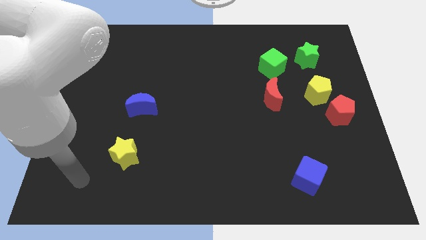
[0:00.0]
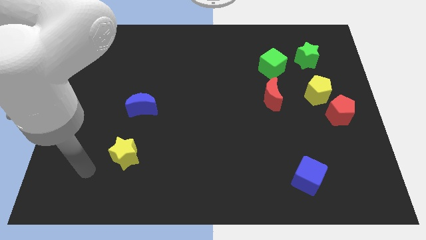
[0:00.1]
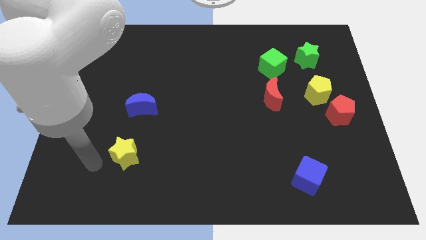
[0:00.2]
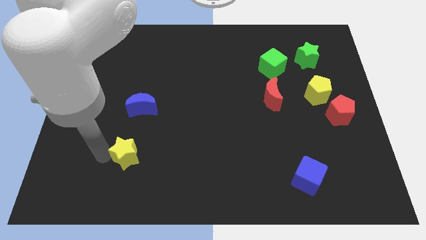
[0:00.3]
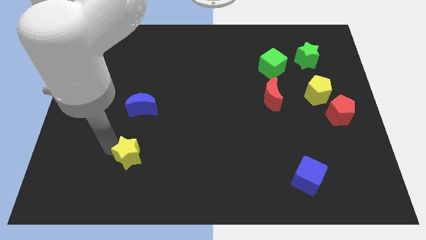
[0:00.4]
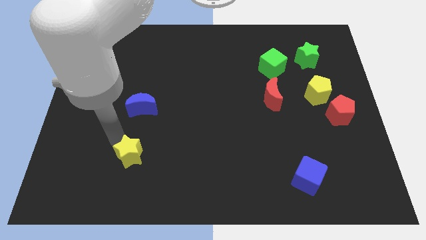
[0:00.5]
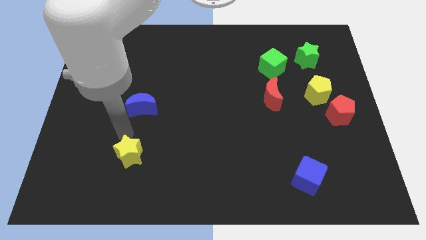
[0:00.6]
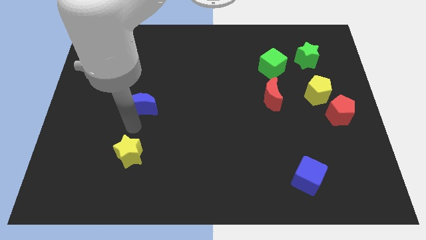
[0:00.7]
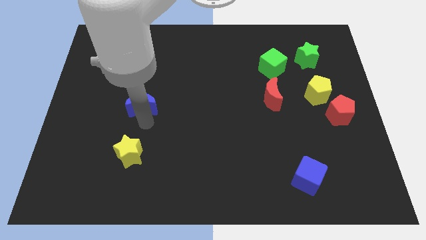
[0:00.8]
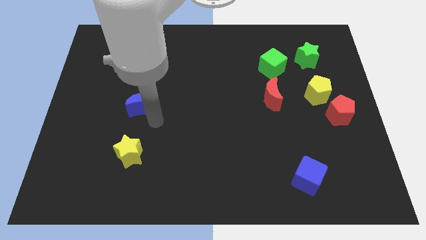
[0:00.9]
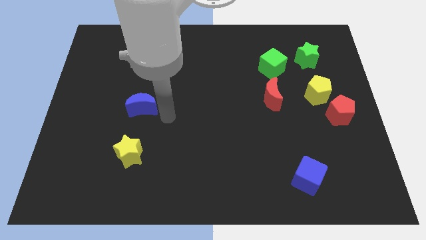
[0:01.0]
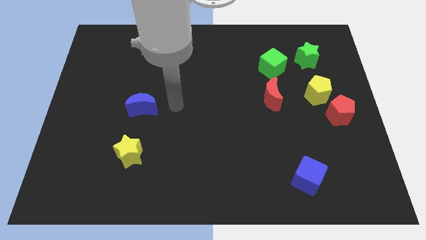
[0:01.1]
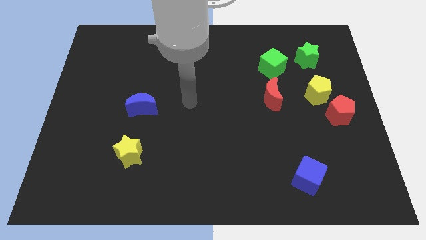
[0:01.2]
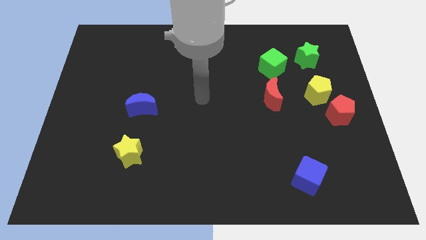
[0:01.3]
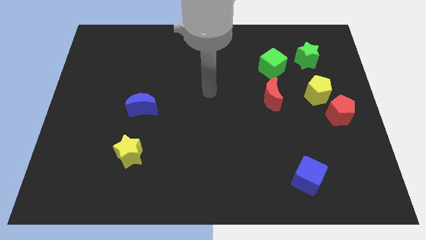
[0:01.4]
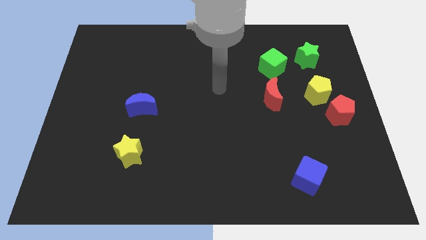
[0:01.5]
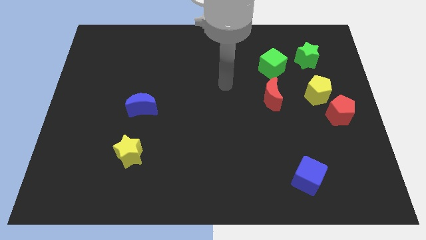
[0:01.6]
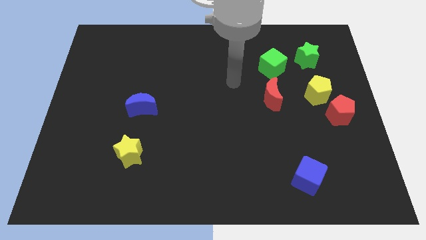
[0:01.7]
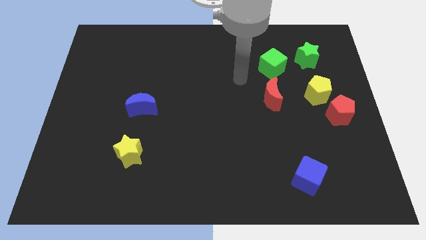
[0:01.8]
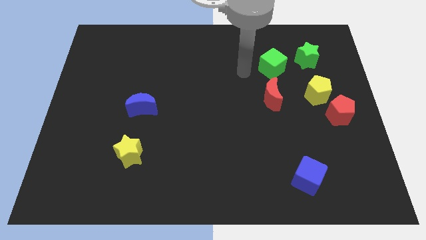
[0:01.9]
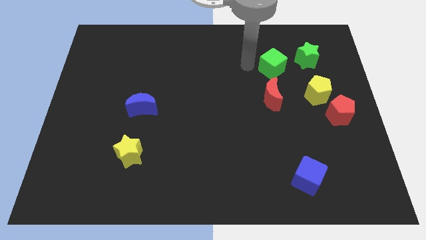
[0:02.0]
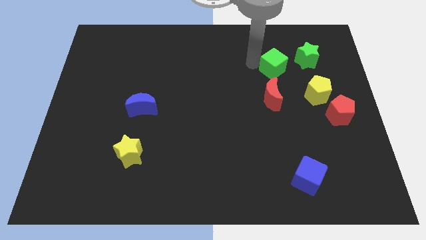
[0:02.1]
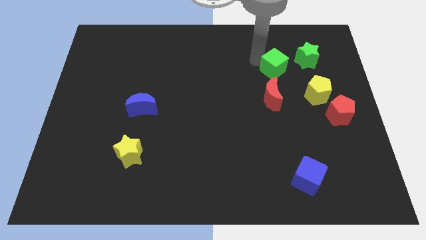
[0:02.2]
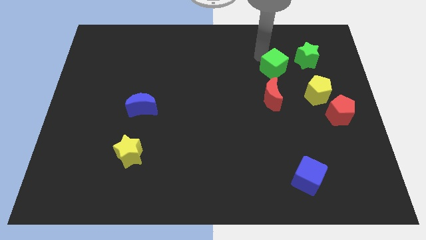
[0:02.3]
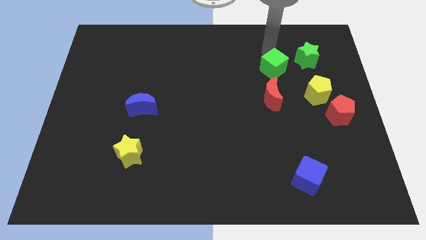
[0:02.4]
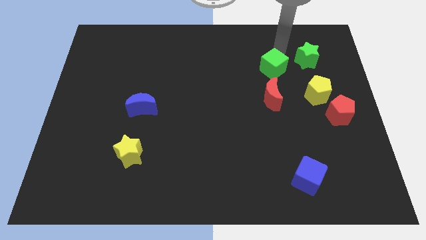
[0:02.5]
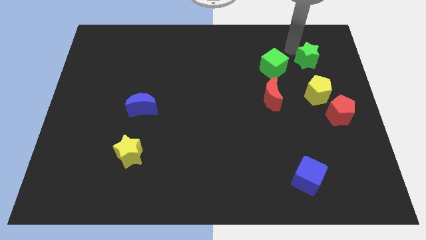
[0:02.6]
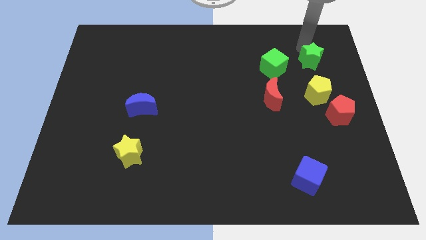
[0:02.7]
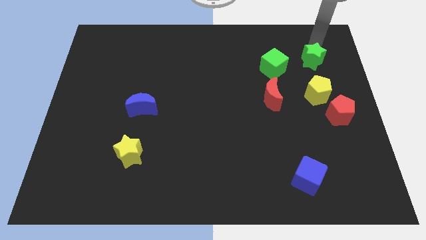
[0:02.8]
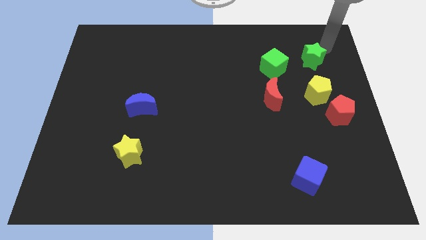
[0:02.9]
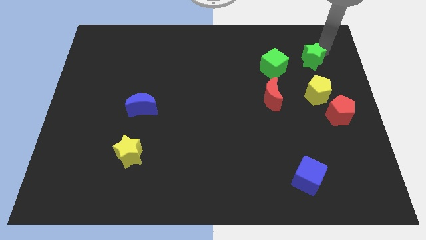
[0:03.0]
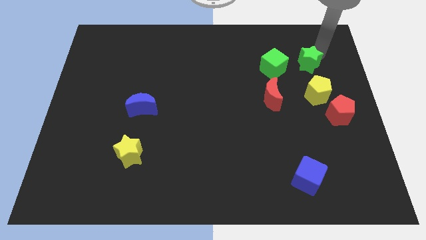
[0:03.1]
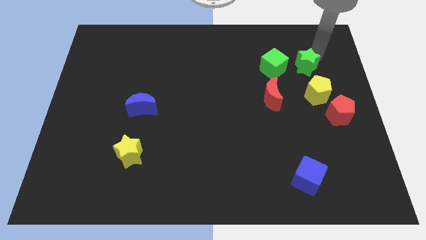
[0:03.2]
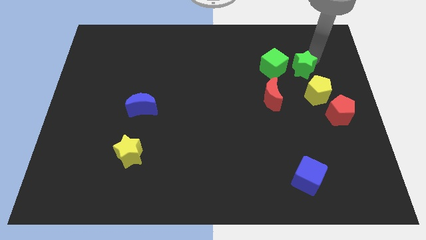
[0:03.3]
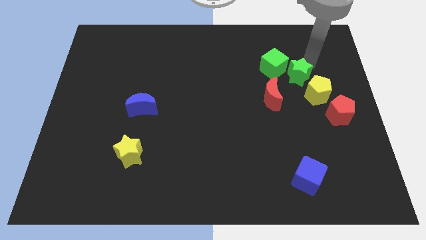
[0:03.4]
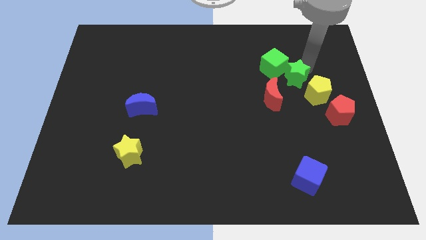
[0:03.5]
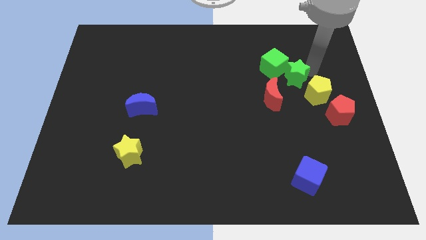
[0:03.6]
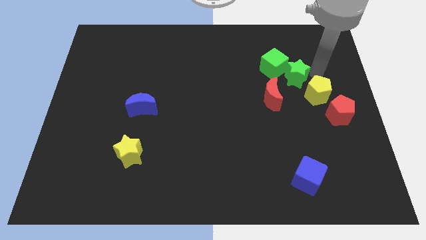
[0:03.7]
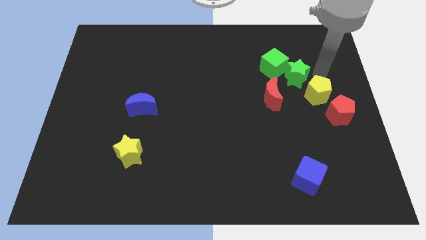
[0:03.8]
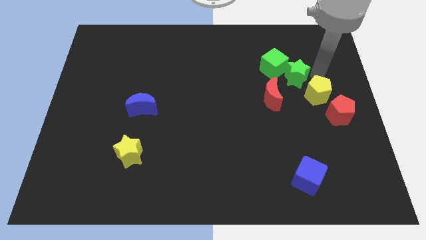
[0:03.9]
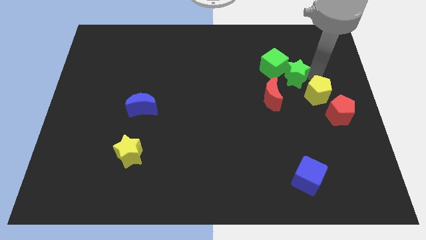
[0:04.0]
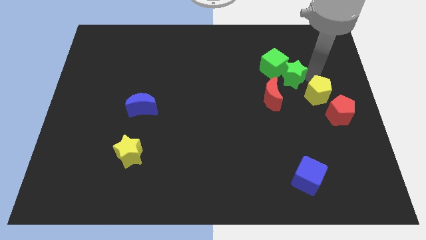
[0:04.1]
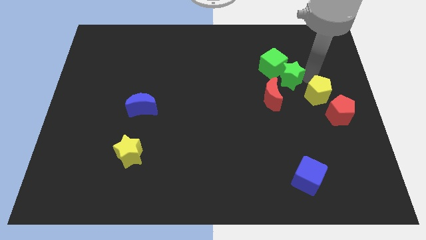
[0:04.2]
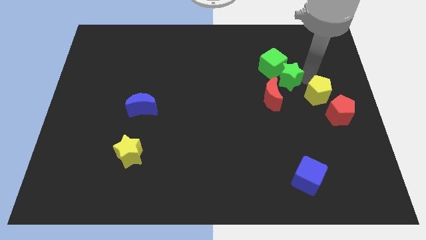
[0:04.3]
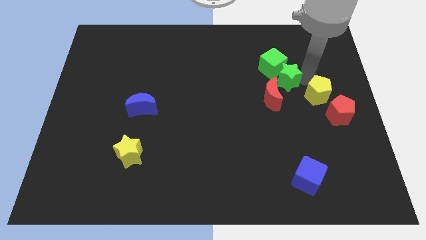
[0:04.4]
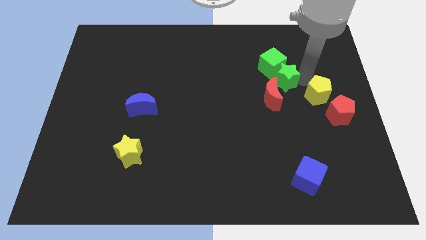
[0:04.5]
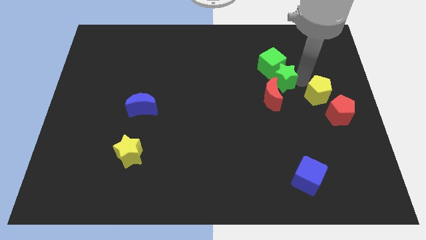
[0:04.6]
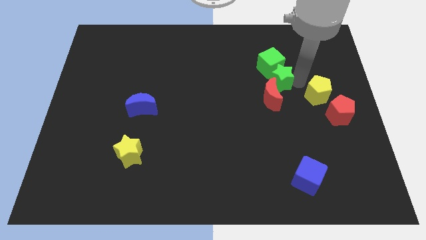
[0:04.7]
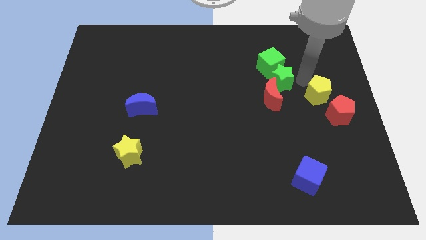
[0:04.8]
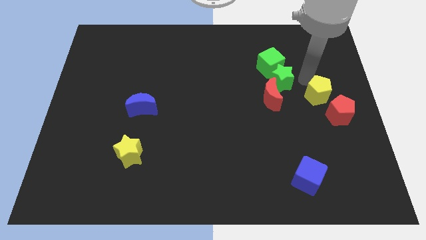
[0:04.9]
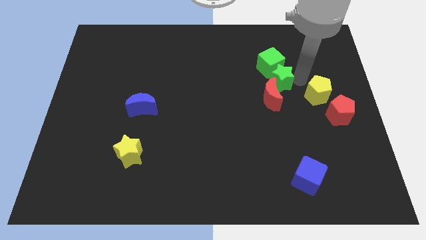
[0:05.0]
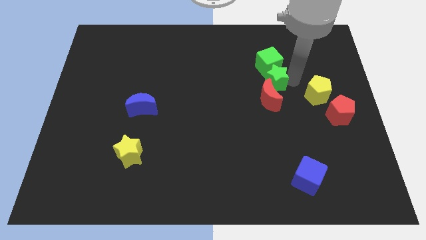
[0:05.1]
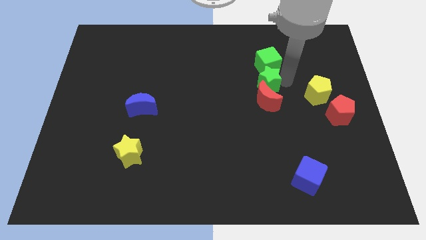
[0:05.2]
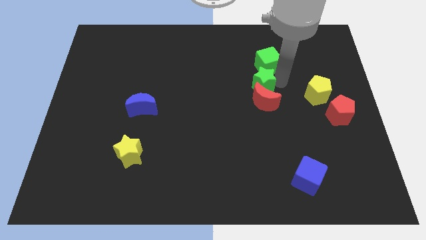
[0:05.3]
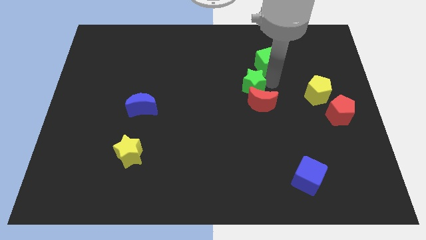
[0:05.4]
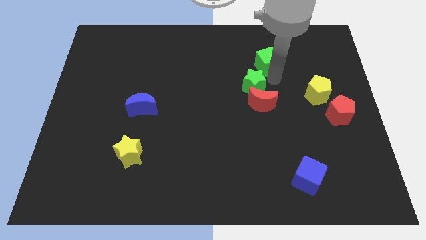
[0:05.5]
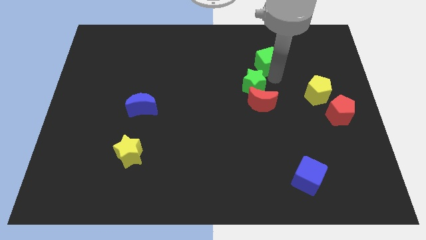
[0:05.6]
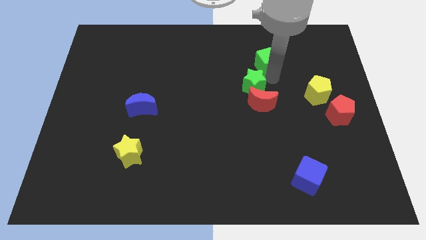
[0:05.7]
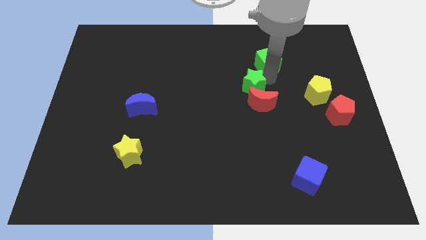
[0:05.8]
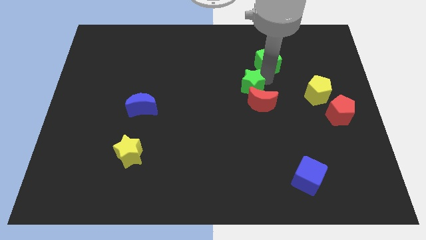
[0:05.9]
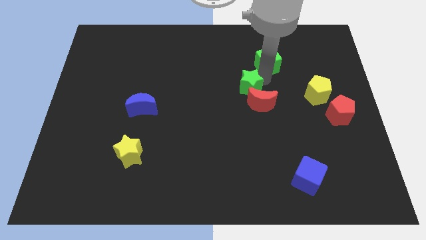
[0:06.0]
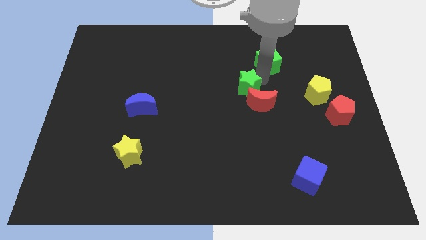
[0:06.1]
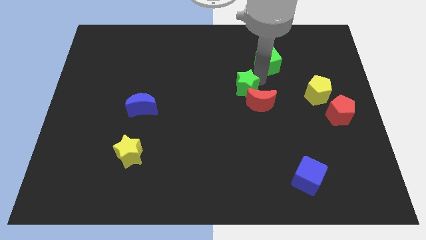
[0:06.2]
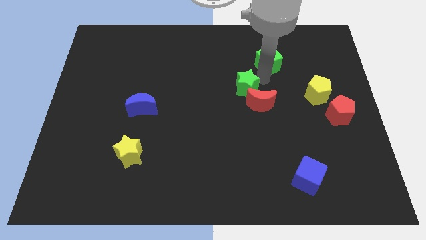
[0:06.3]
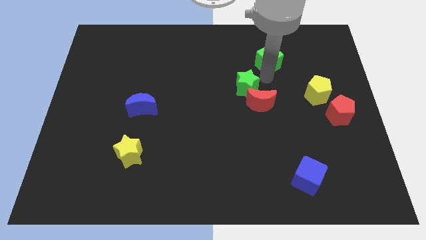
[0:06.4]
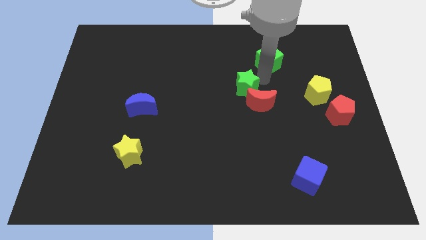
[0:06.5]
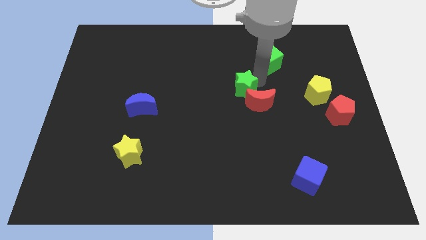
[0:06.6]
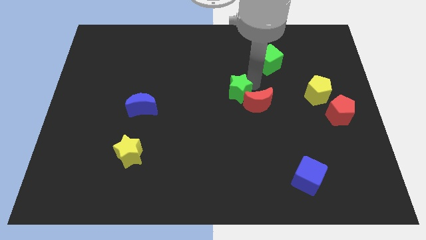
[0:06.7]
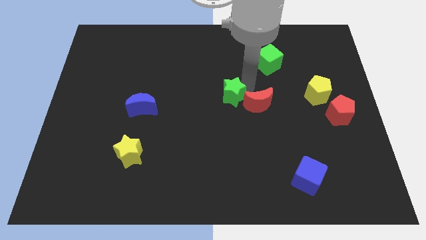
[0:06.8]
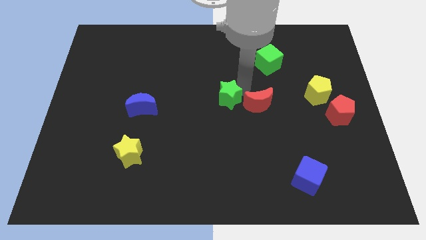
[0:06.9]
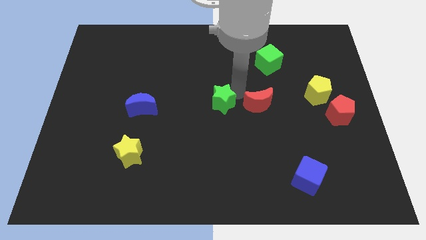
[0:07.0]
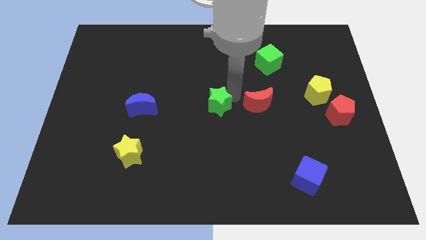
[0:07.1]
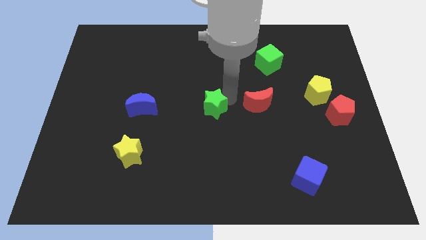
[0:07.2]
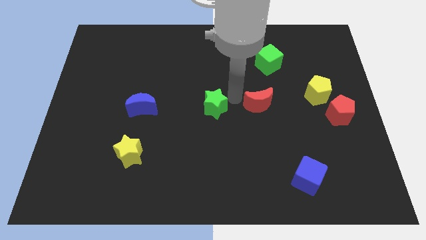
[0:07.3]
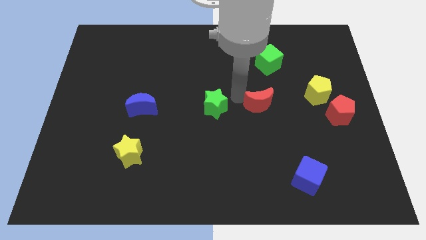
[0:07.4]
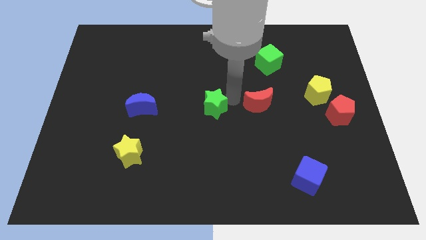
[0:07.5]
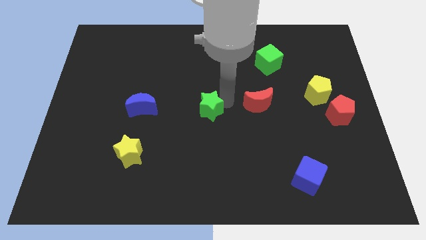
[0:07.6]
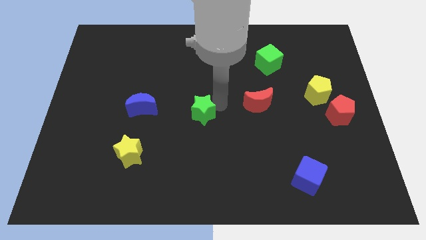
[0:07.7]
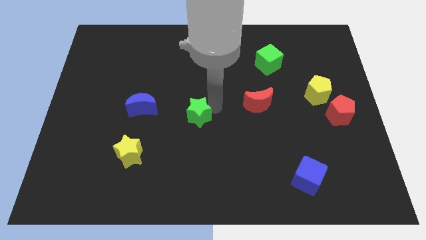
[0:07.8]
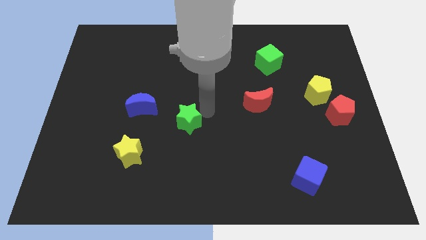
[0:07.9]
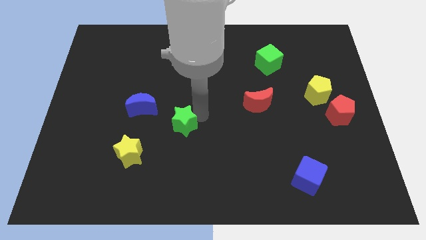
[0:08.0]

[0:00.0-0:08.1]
slide the green star to the bottom right side of the blue moon
